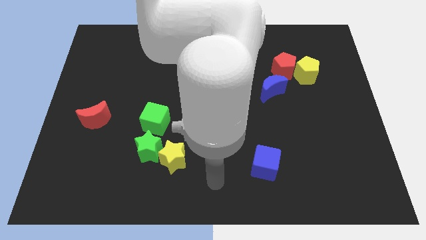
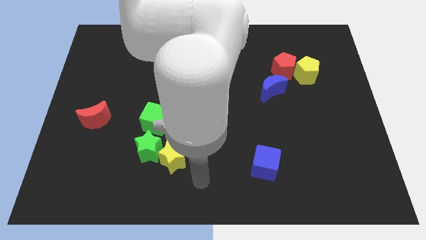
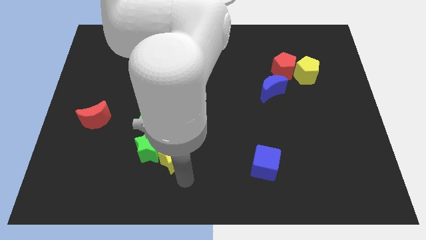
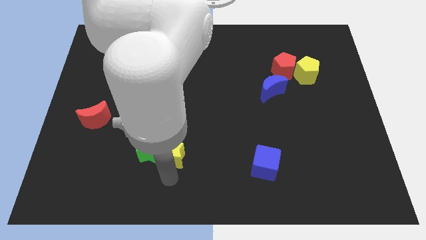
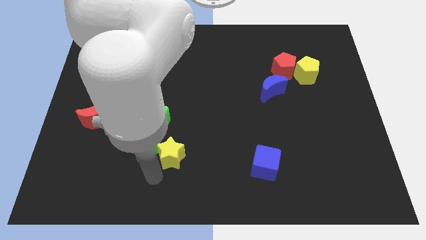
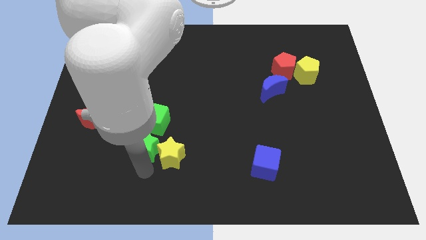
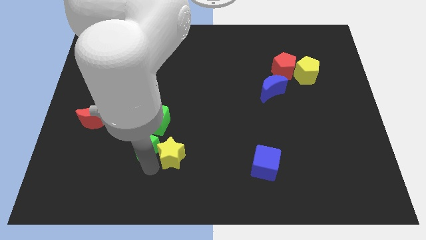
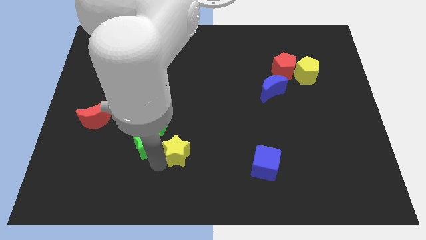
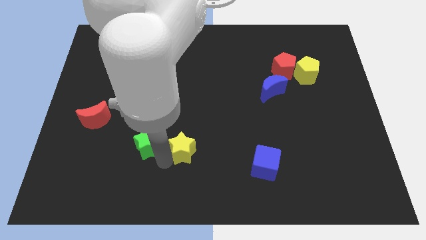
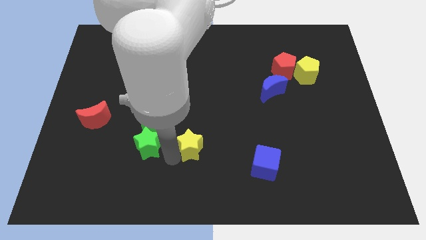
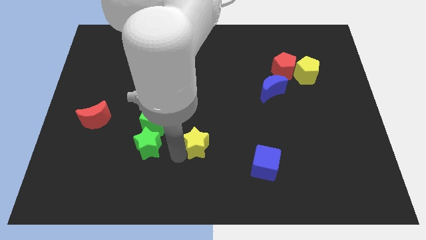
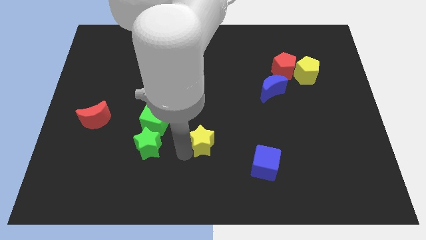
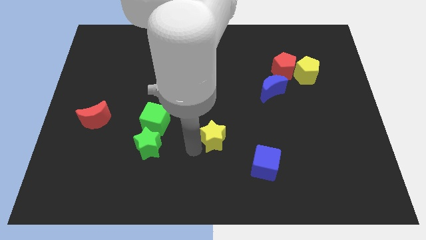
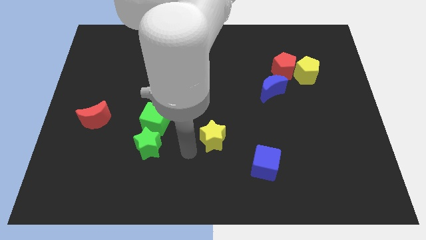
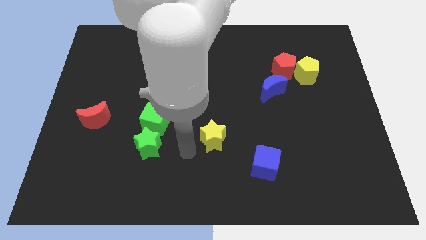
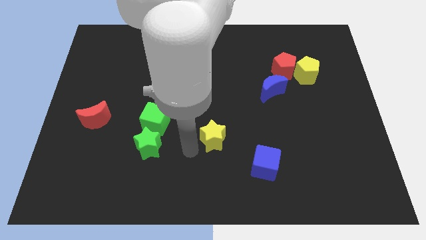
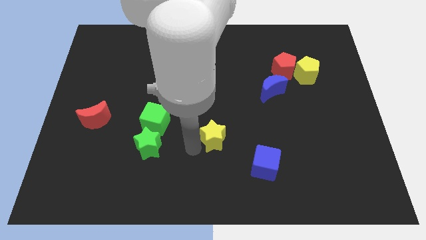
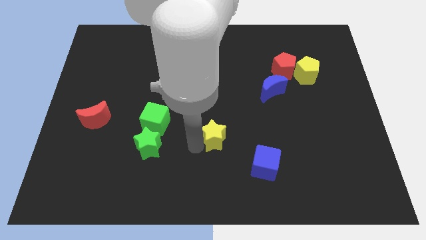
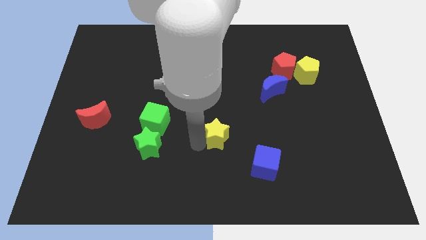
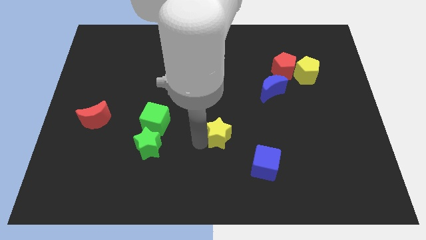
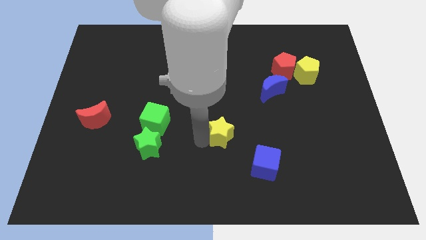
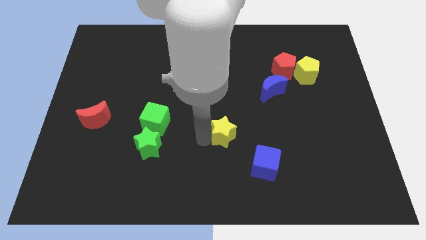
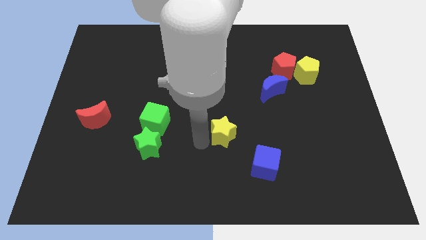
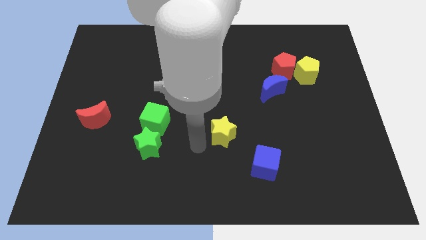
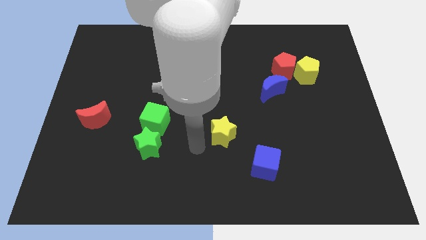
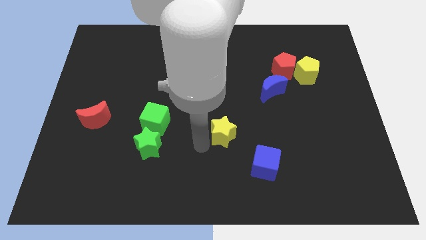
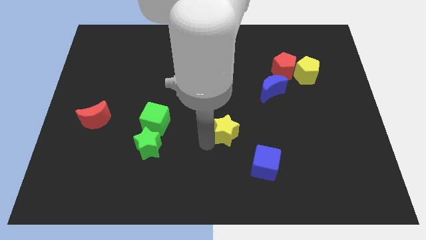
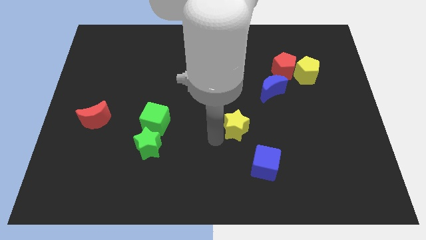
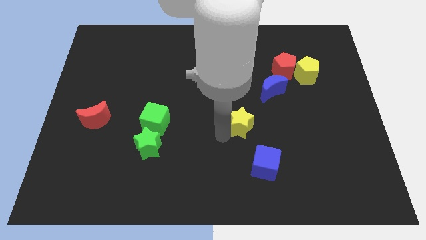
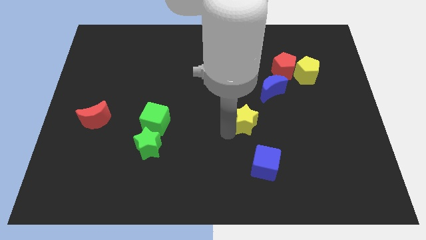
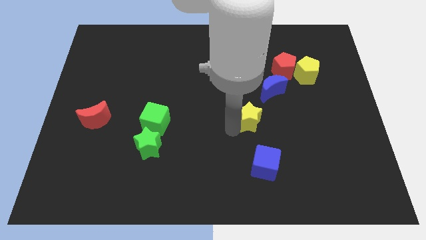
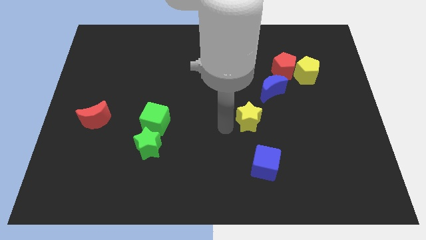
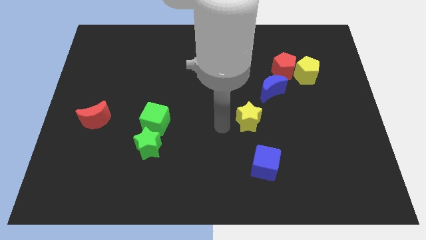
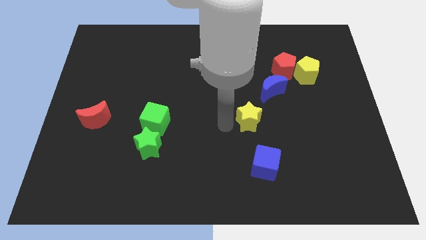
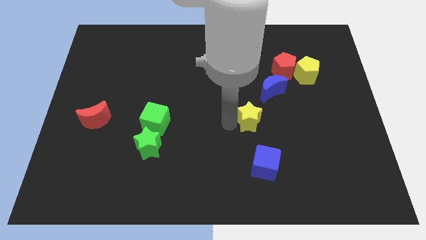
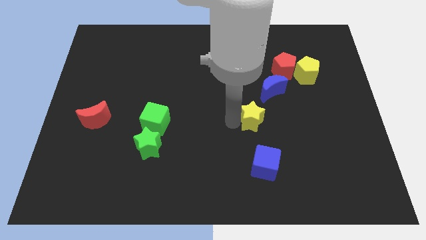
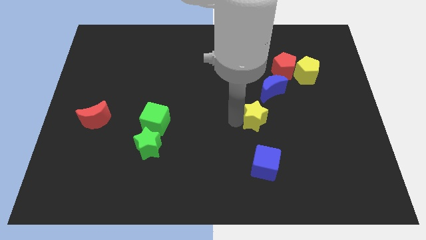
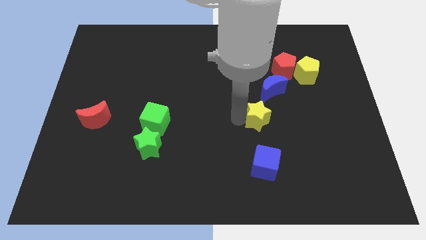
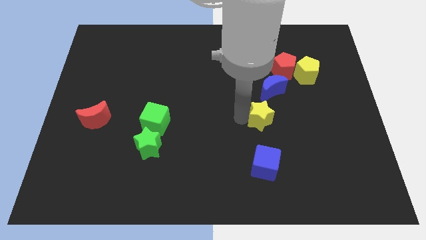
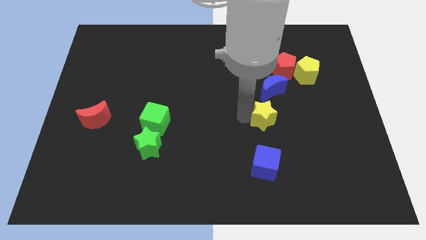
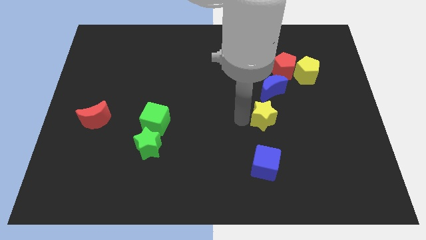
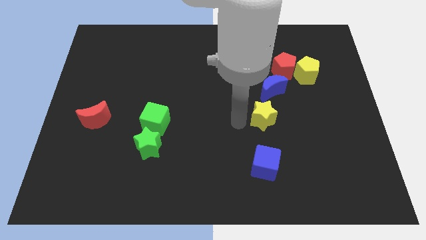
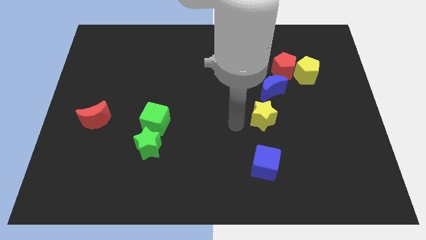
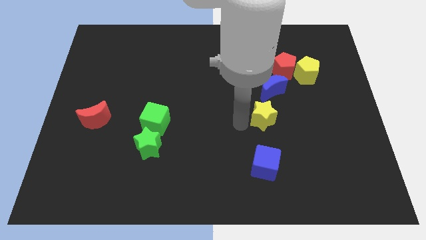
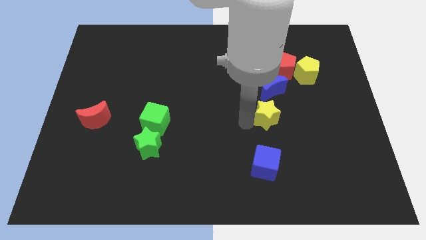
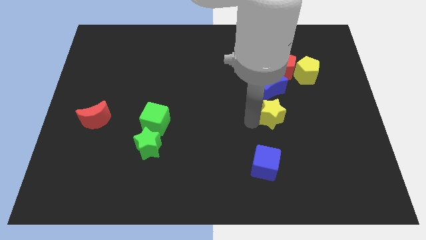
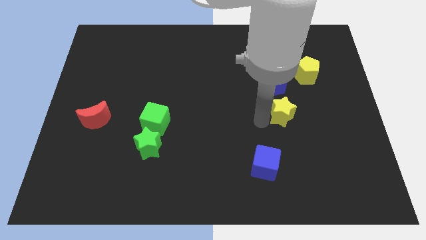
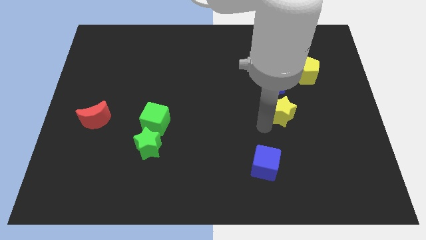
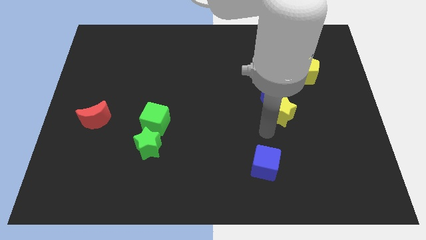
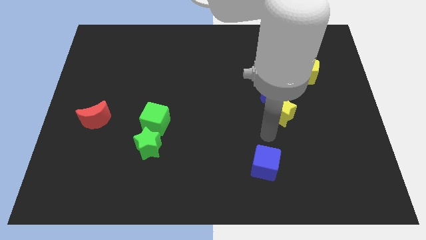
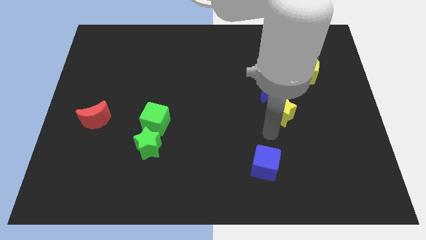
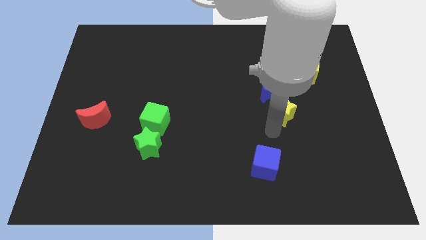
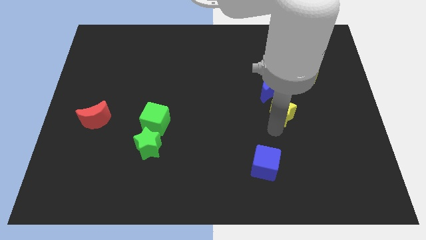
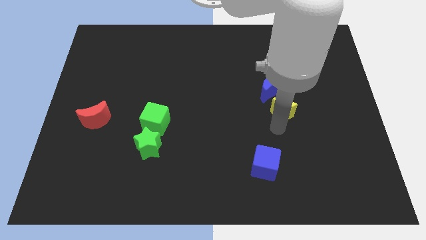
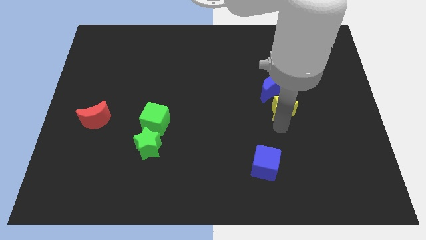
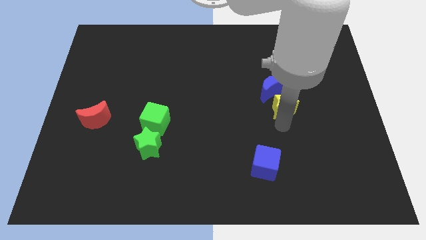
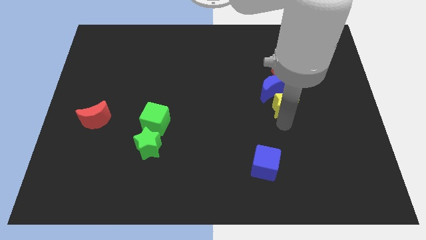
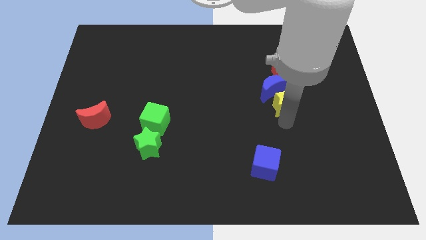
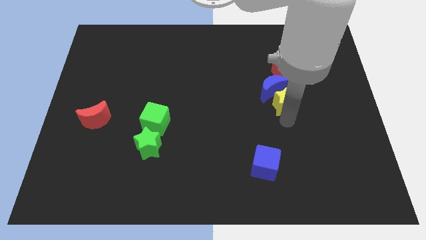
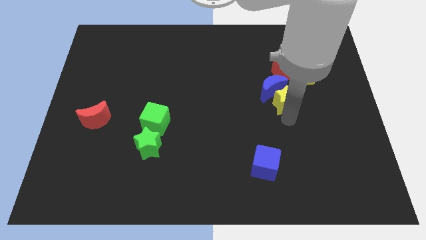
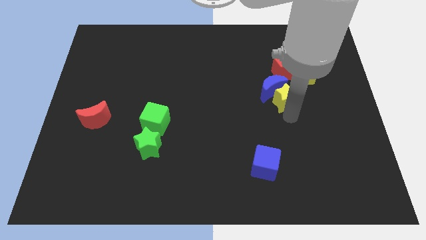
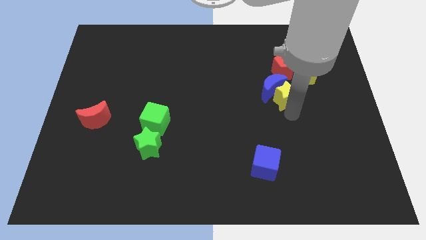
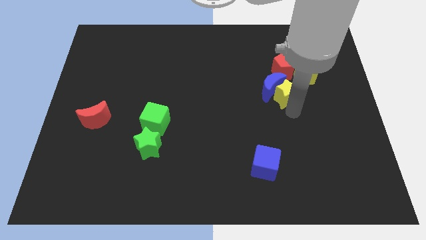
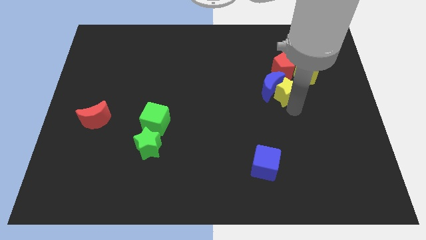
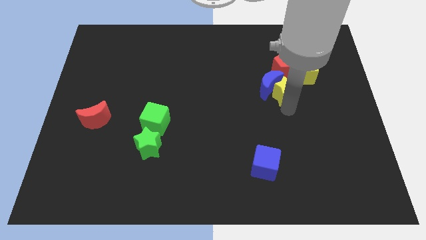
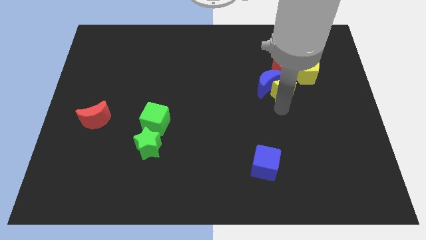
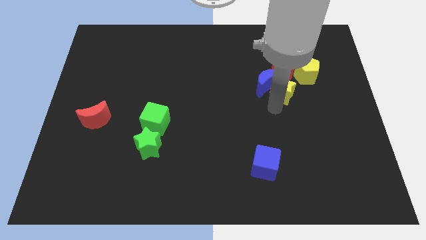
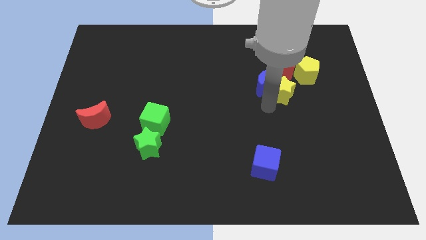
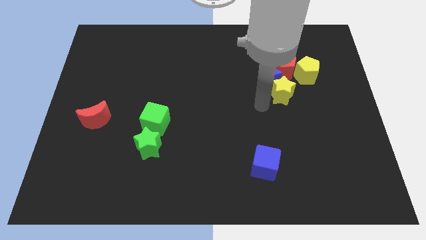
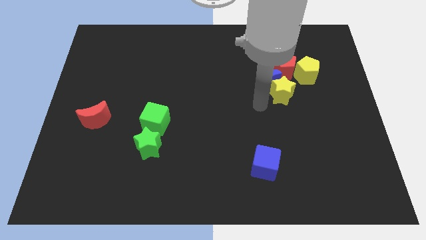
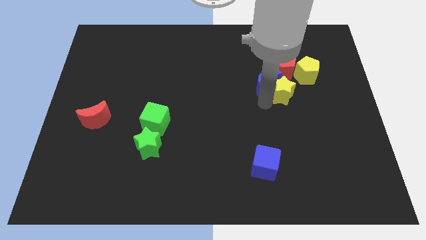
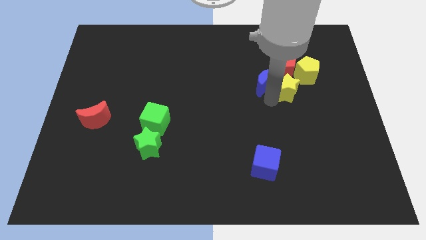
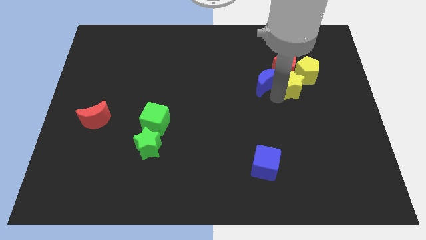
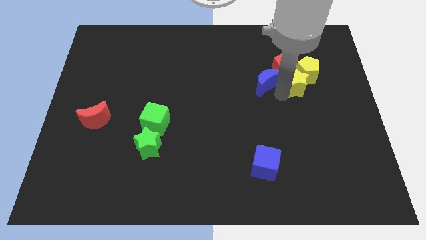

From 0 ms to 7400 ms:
slide the yellow star next to the yellow pentagon
